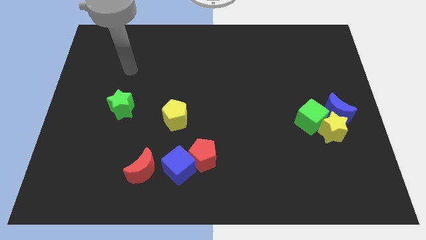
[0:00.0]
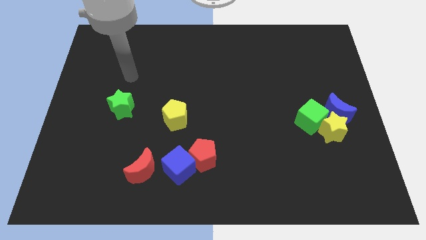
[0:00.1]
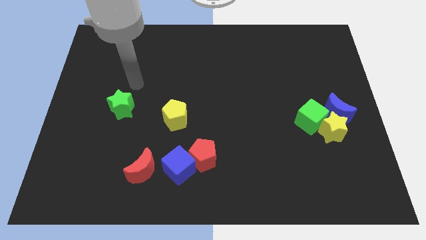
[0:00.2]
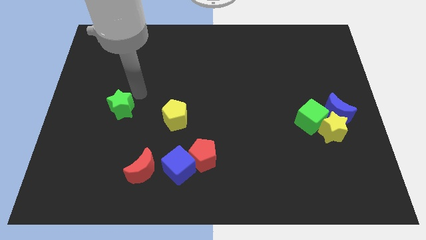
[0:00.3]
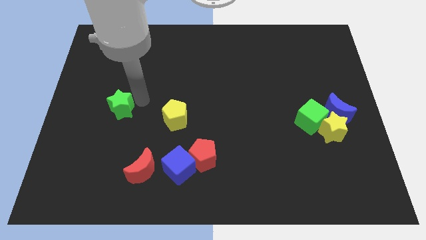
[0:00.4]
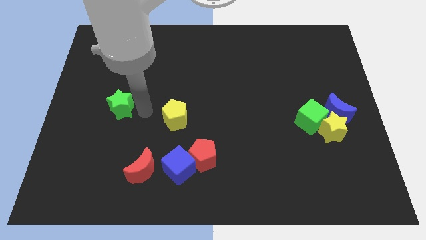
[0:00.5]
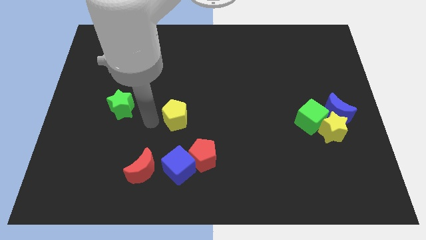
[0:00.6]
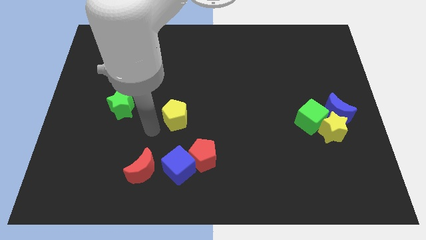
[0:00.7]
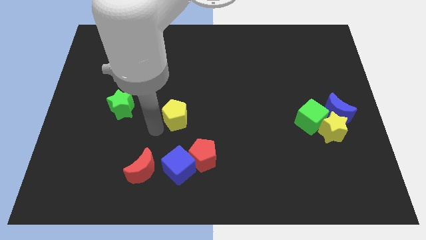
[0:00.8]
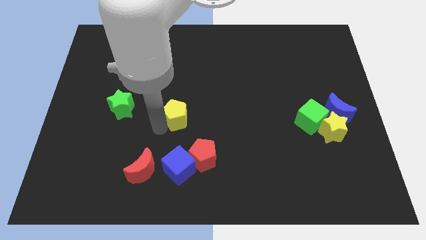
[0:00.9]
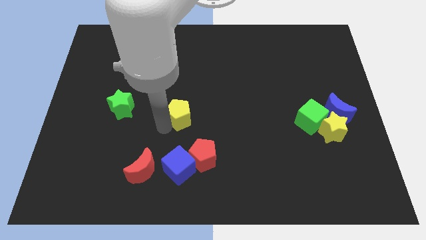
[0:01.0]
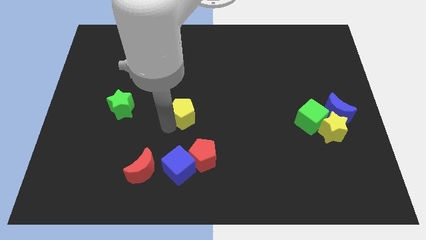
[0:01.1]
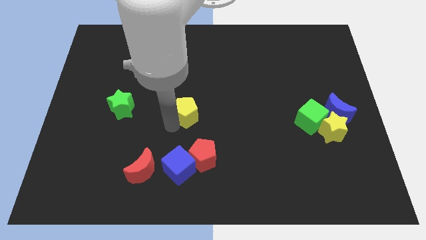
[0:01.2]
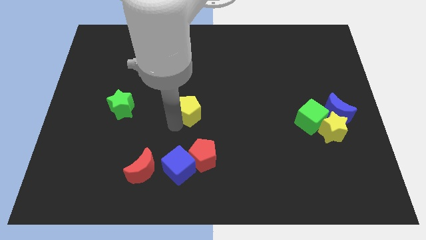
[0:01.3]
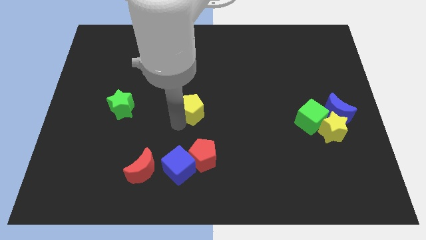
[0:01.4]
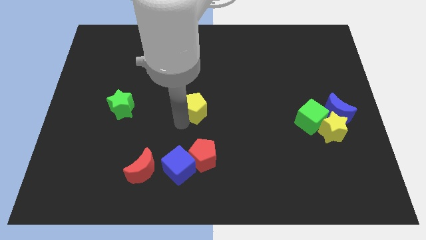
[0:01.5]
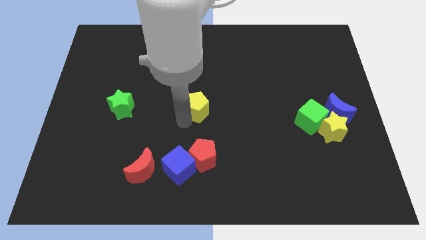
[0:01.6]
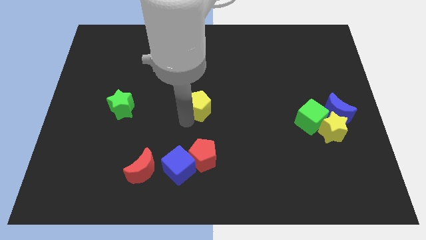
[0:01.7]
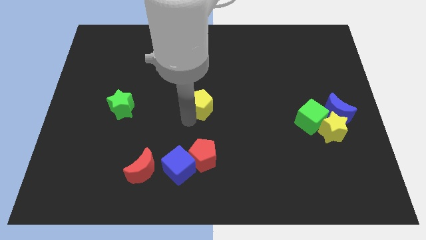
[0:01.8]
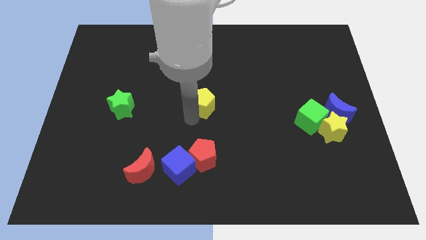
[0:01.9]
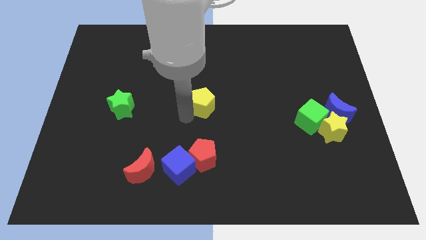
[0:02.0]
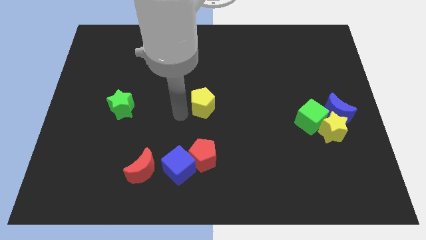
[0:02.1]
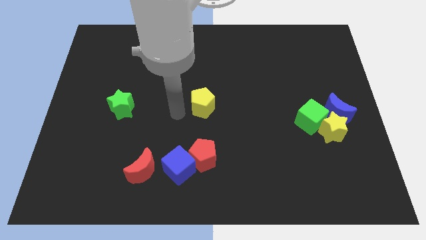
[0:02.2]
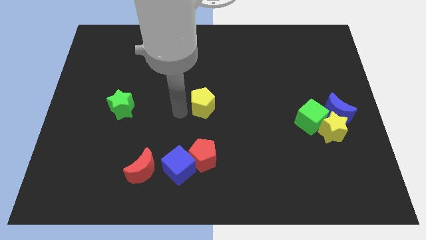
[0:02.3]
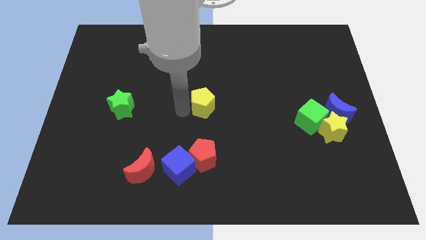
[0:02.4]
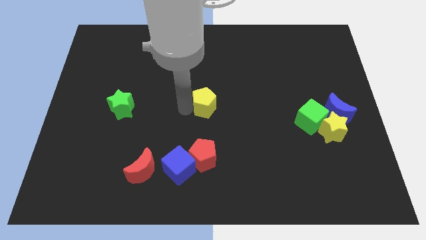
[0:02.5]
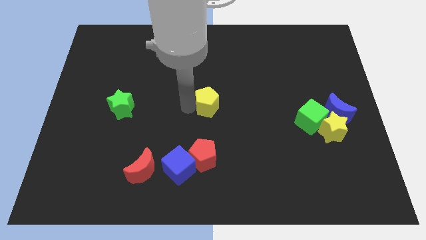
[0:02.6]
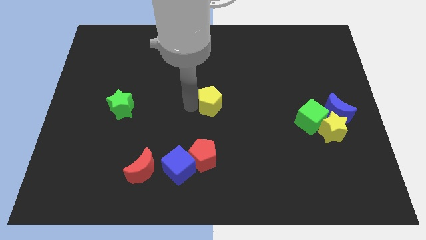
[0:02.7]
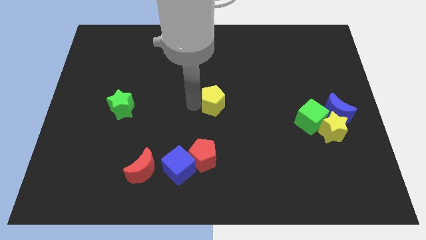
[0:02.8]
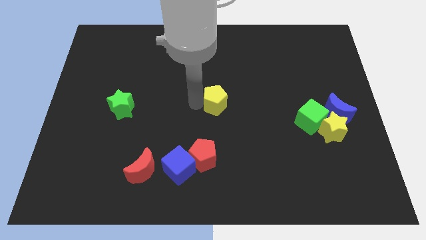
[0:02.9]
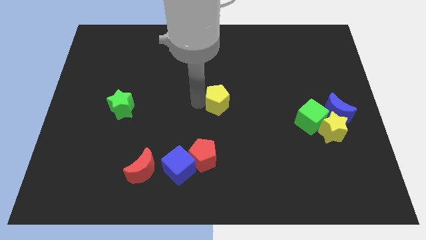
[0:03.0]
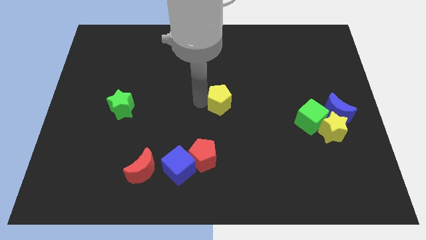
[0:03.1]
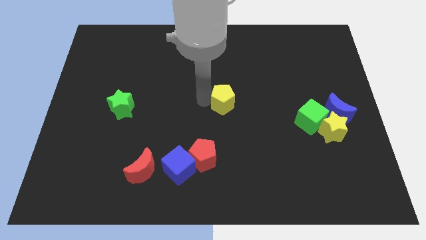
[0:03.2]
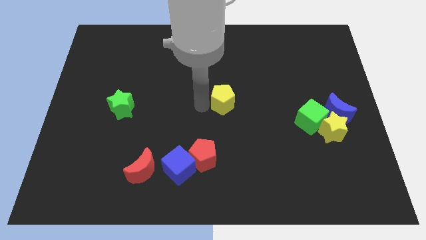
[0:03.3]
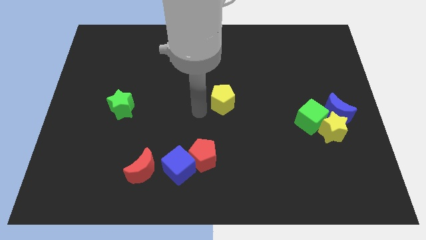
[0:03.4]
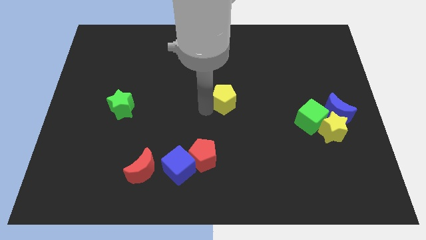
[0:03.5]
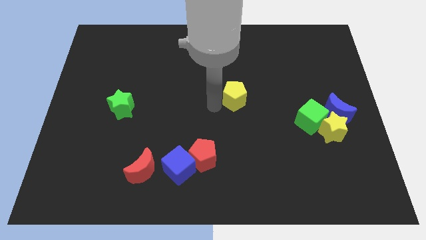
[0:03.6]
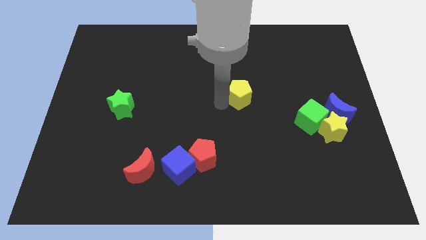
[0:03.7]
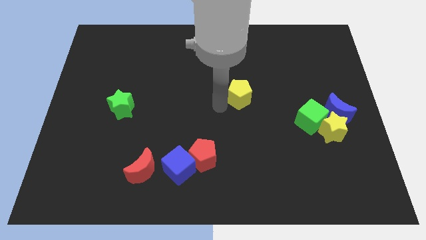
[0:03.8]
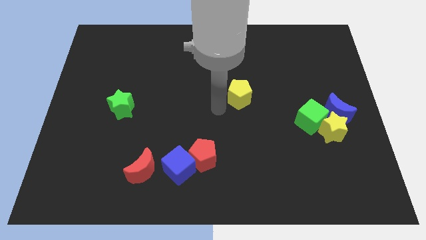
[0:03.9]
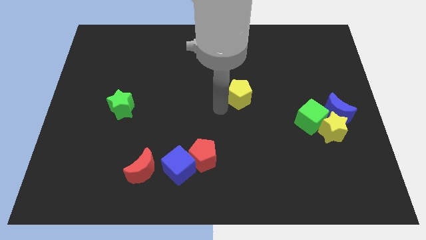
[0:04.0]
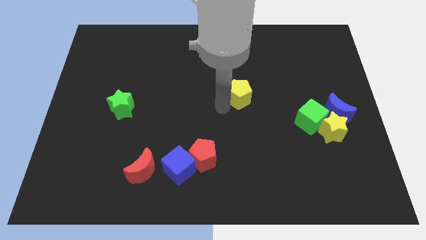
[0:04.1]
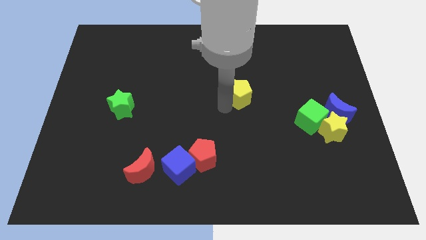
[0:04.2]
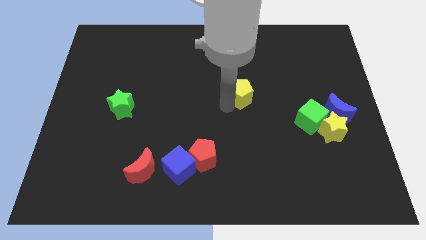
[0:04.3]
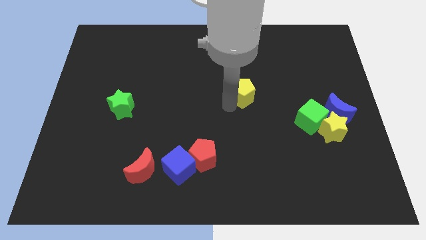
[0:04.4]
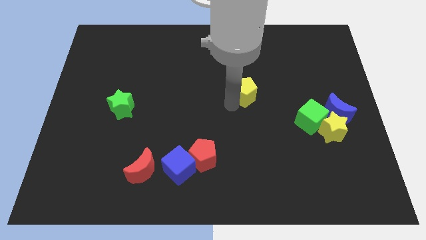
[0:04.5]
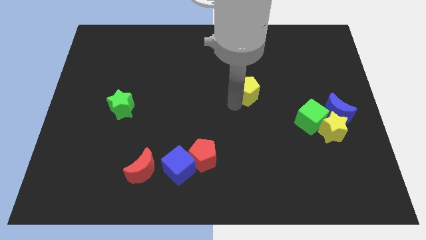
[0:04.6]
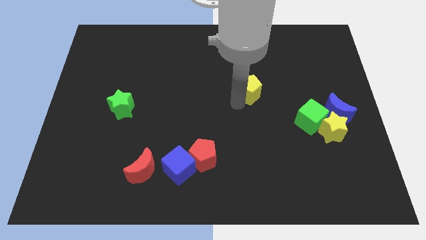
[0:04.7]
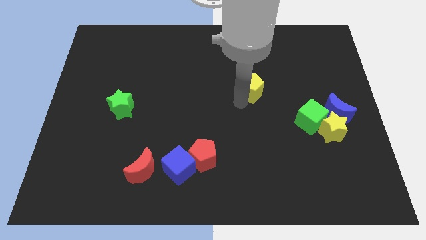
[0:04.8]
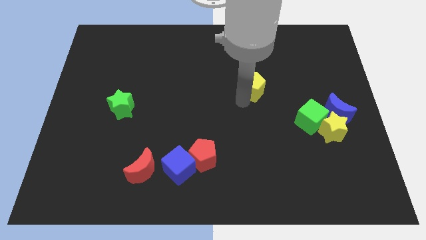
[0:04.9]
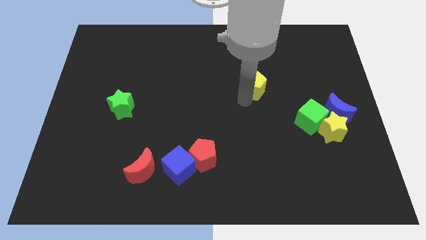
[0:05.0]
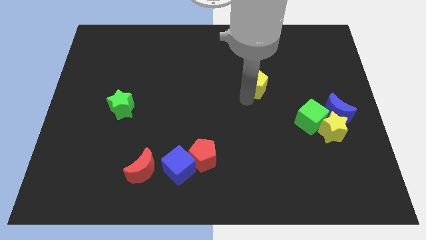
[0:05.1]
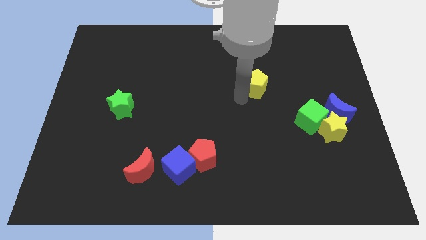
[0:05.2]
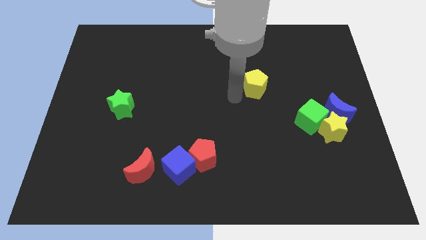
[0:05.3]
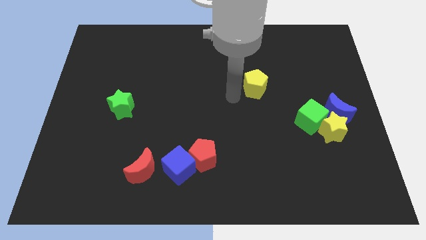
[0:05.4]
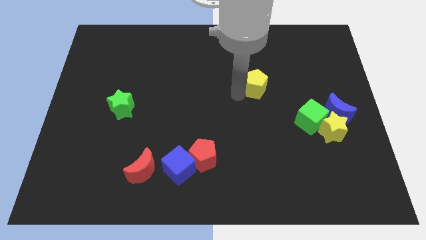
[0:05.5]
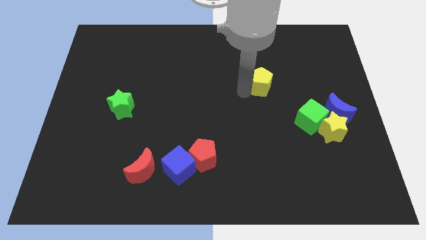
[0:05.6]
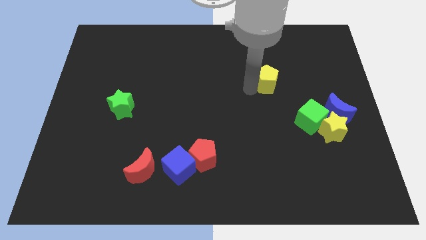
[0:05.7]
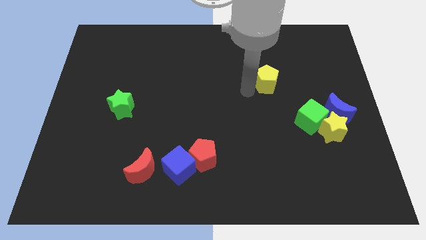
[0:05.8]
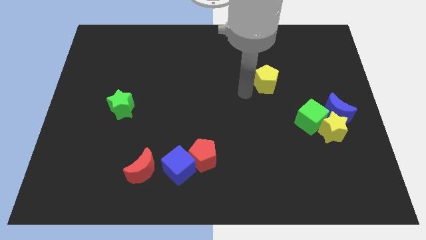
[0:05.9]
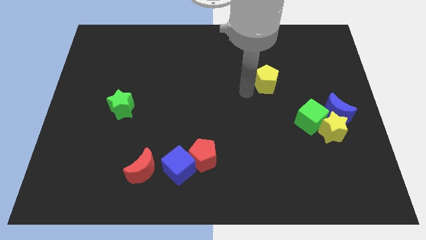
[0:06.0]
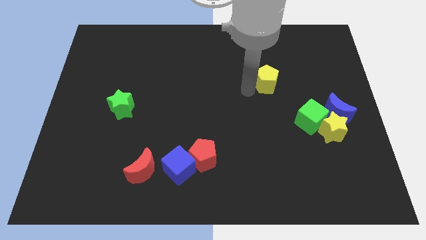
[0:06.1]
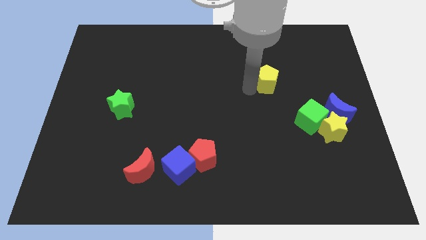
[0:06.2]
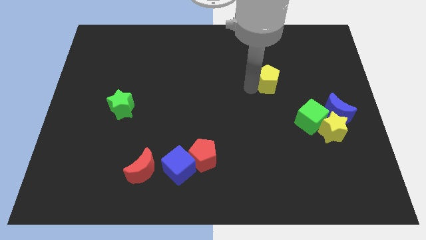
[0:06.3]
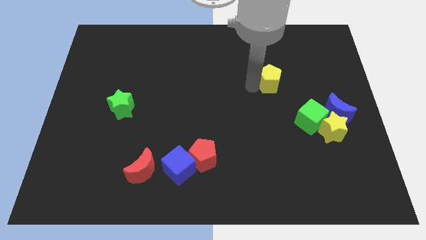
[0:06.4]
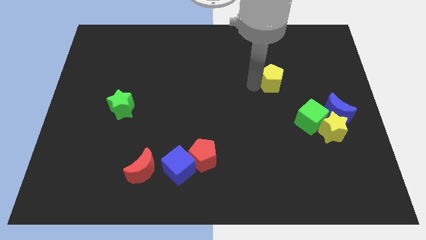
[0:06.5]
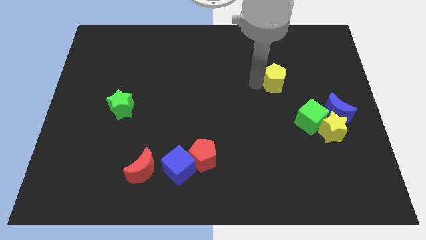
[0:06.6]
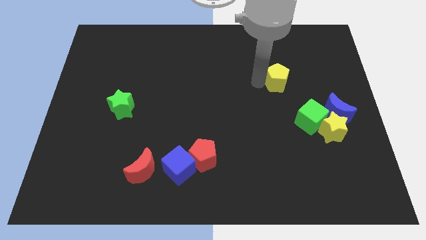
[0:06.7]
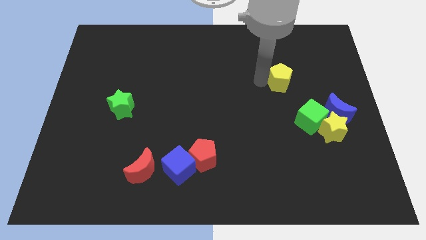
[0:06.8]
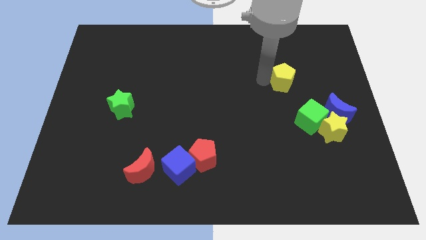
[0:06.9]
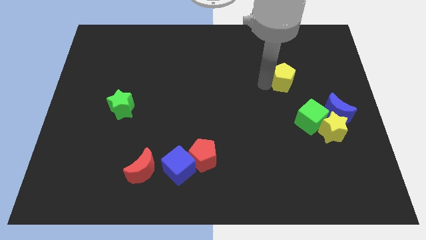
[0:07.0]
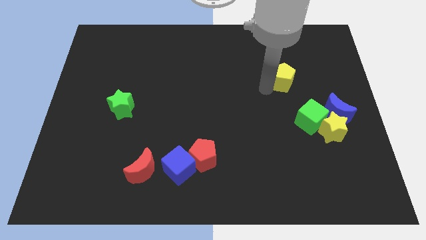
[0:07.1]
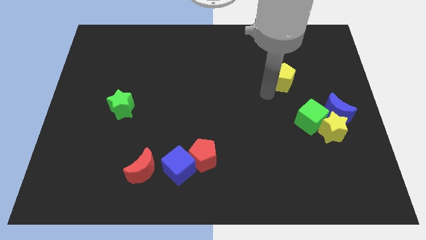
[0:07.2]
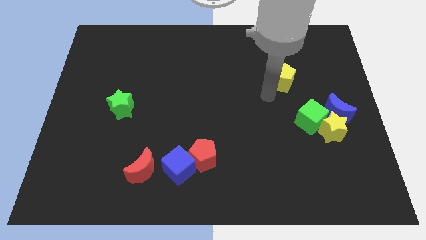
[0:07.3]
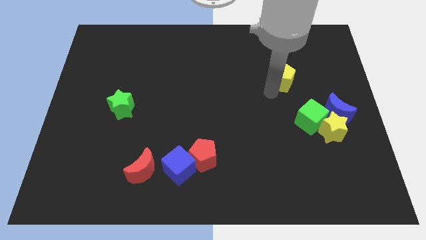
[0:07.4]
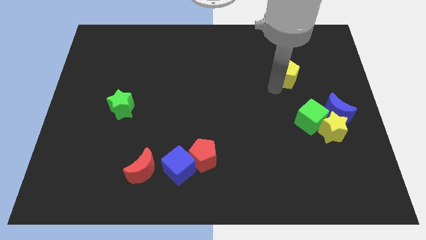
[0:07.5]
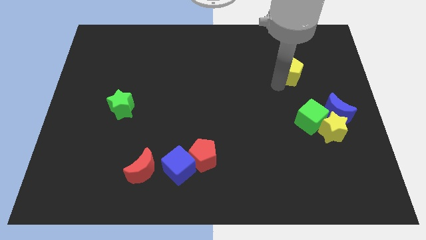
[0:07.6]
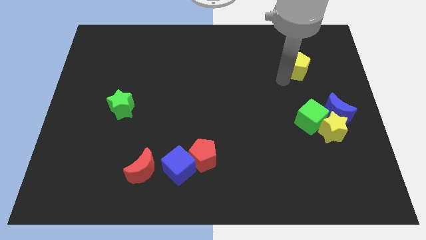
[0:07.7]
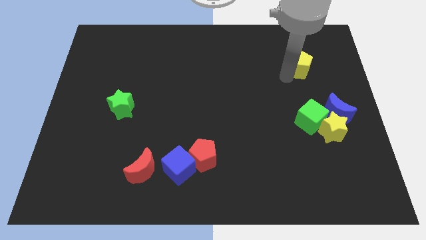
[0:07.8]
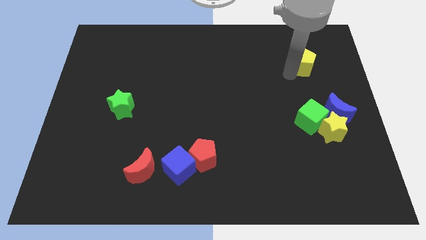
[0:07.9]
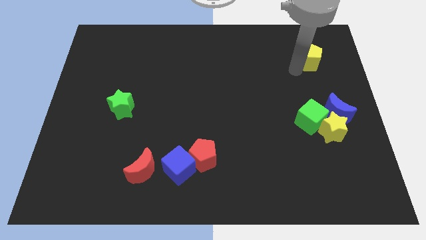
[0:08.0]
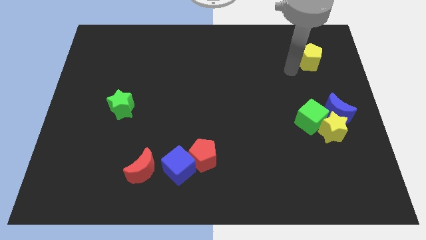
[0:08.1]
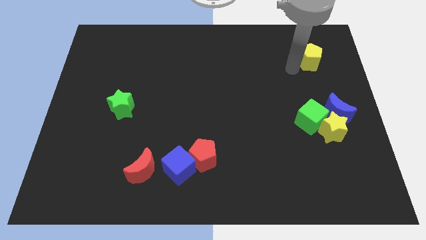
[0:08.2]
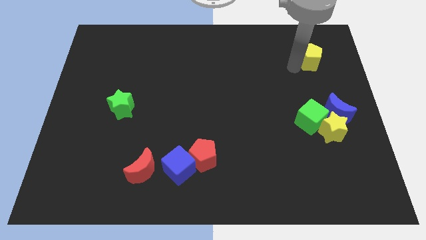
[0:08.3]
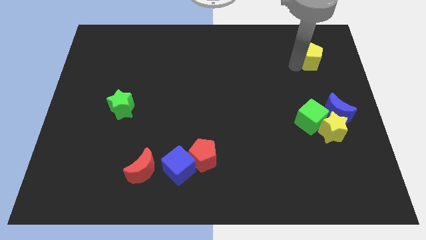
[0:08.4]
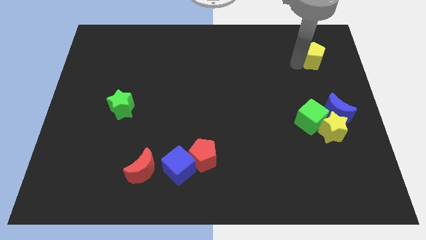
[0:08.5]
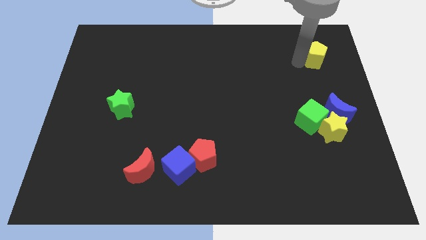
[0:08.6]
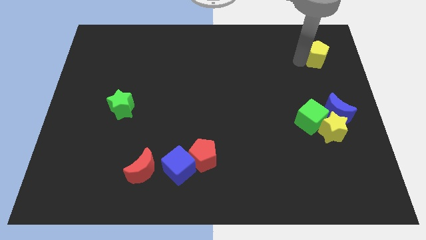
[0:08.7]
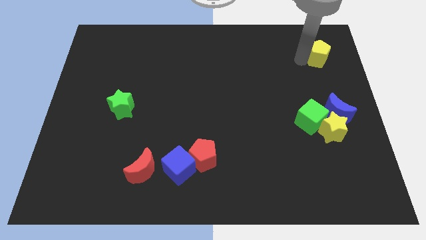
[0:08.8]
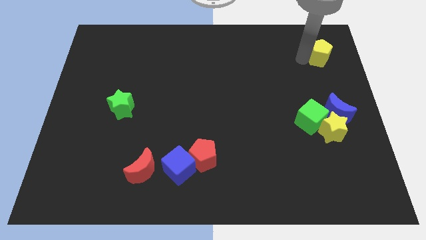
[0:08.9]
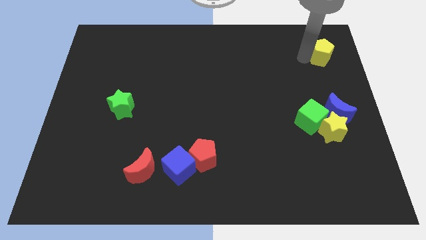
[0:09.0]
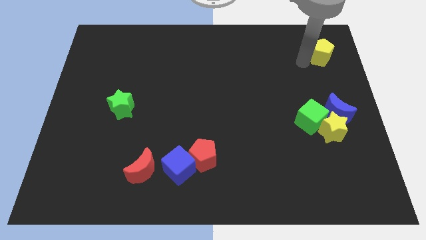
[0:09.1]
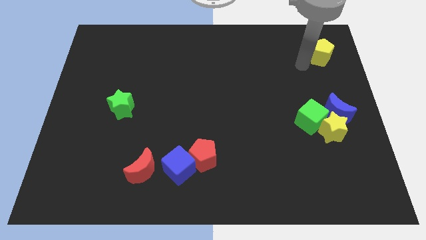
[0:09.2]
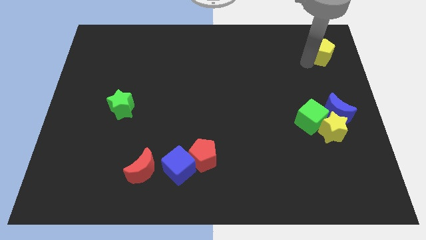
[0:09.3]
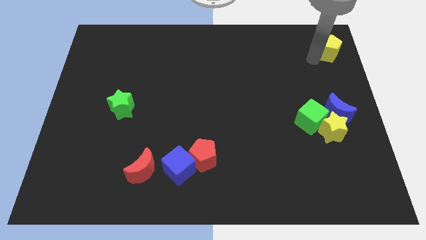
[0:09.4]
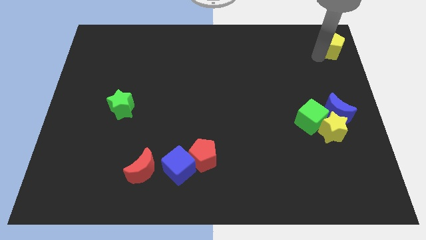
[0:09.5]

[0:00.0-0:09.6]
push the yellow pentagon to the upper right corner
